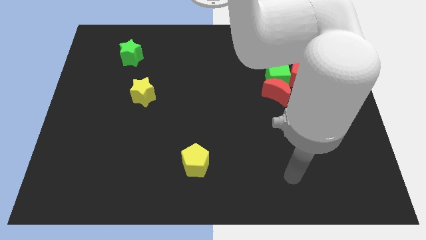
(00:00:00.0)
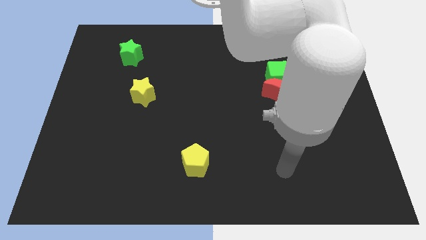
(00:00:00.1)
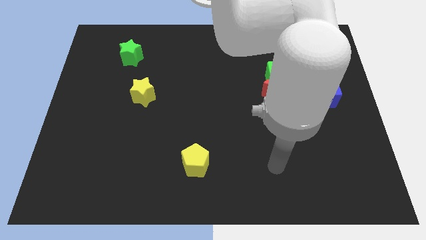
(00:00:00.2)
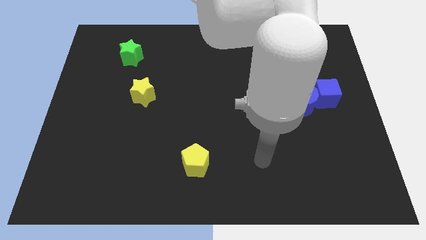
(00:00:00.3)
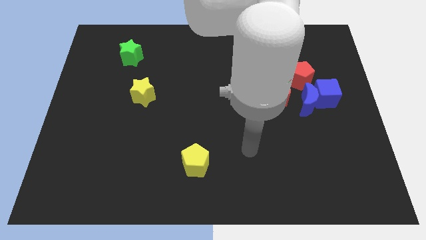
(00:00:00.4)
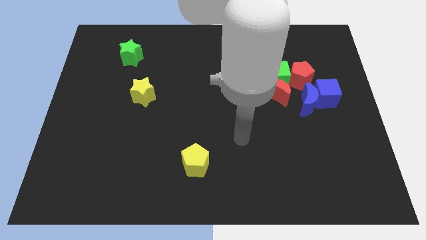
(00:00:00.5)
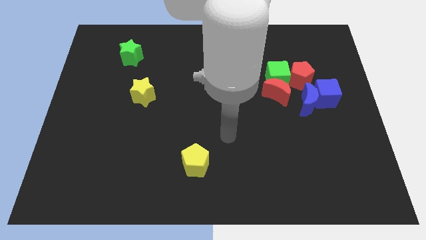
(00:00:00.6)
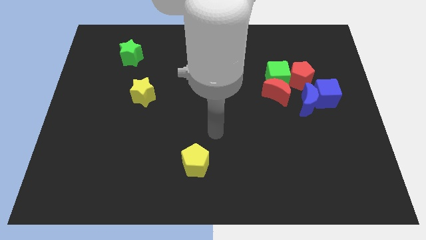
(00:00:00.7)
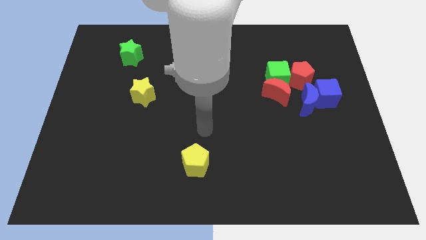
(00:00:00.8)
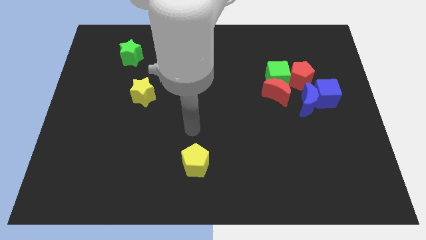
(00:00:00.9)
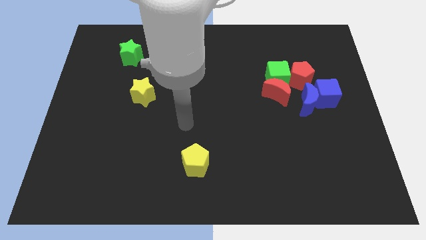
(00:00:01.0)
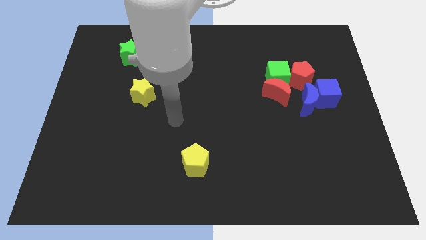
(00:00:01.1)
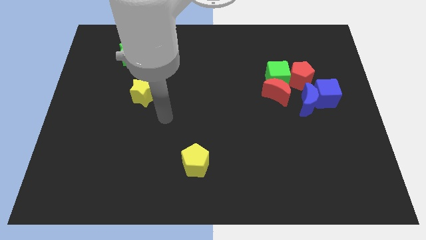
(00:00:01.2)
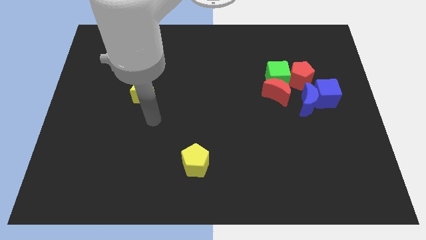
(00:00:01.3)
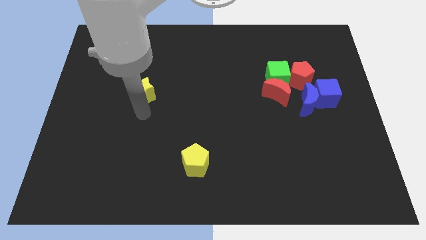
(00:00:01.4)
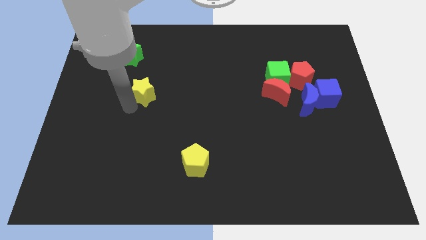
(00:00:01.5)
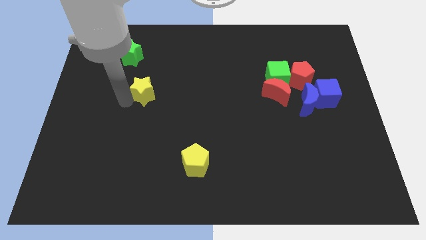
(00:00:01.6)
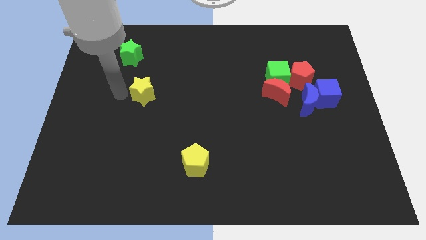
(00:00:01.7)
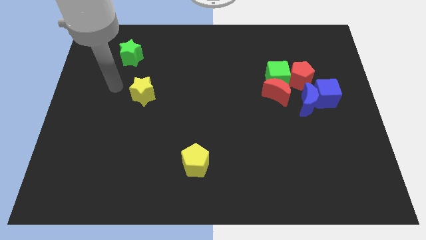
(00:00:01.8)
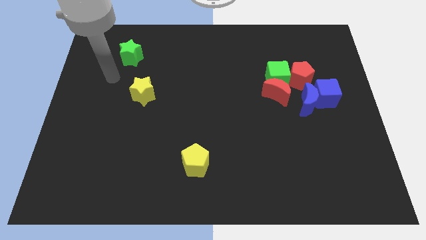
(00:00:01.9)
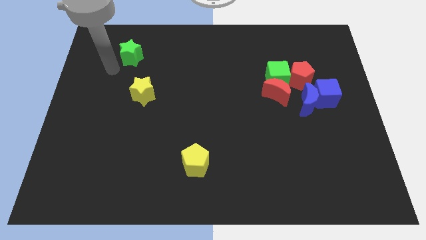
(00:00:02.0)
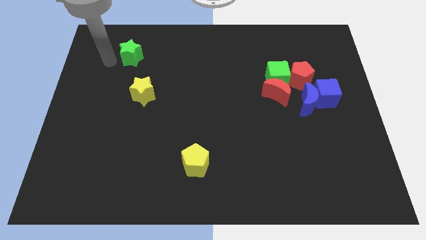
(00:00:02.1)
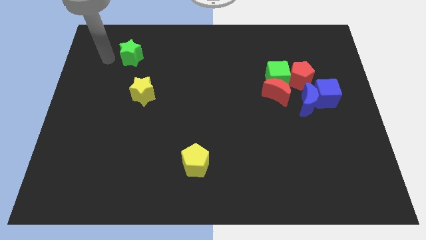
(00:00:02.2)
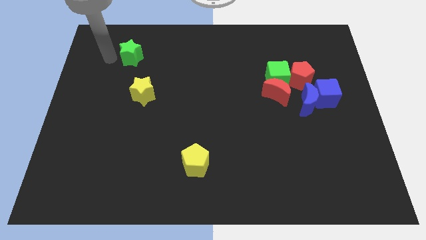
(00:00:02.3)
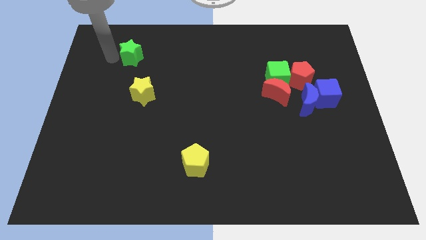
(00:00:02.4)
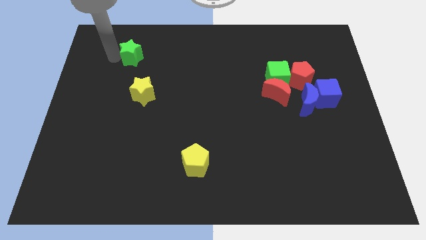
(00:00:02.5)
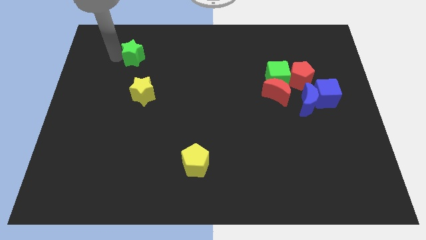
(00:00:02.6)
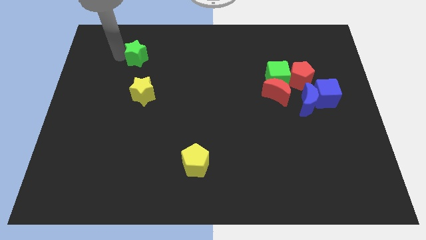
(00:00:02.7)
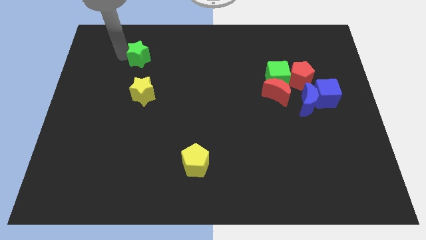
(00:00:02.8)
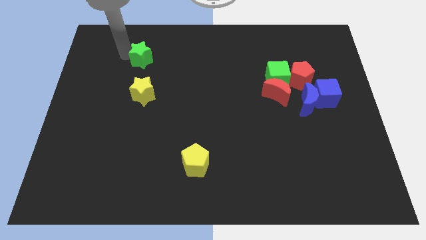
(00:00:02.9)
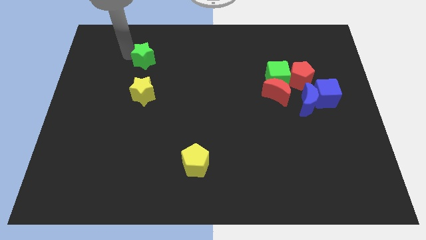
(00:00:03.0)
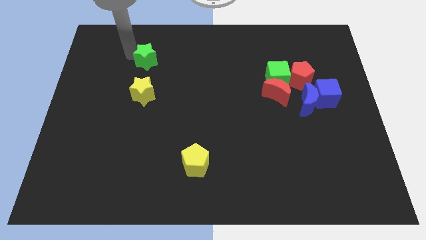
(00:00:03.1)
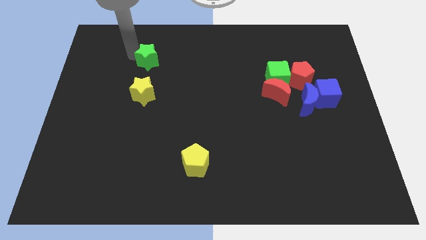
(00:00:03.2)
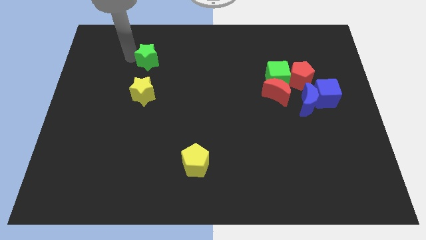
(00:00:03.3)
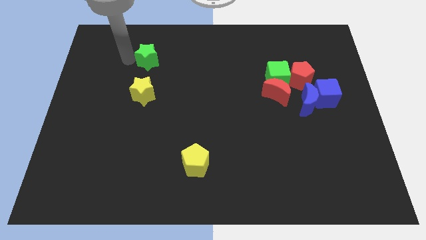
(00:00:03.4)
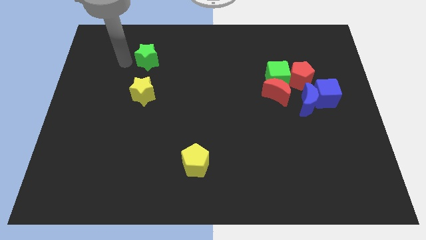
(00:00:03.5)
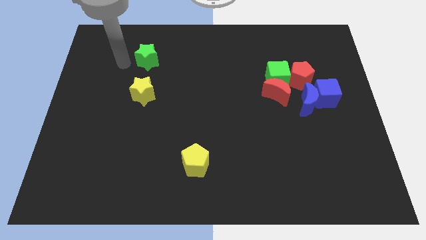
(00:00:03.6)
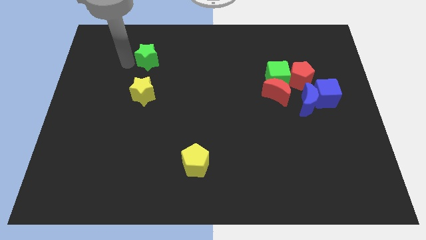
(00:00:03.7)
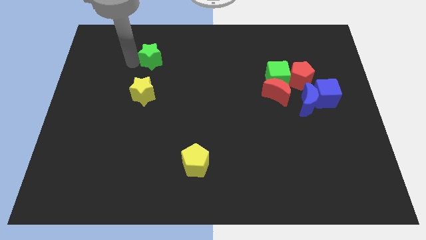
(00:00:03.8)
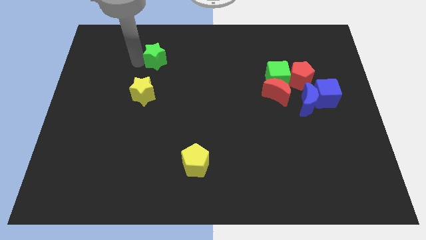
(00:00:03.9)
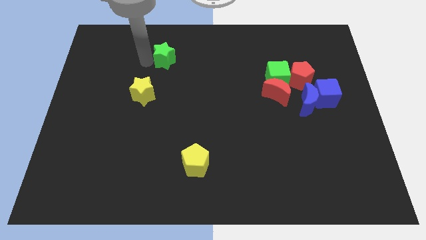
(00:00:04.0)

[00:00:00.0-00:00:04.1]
slightly push the green star to the right

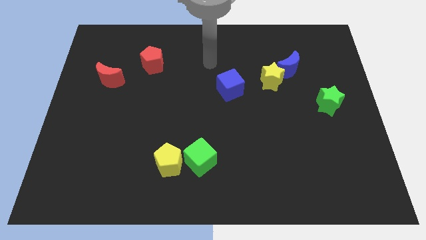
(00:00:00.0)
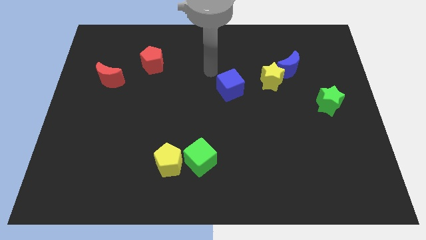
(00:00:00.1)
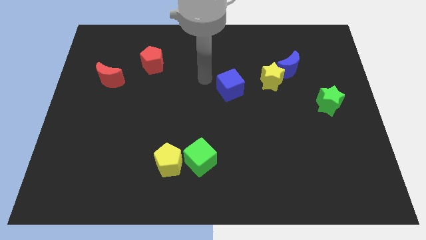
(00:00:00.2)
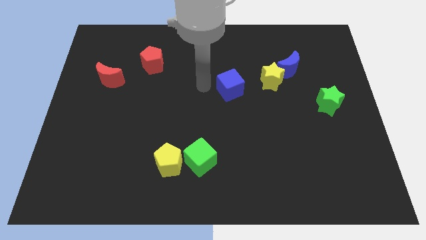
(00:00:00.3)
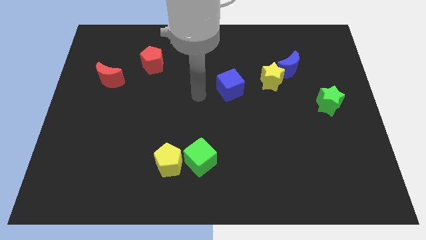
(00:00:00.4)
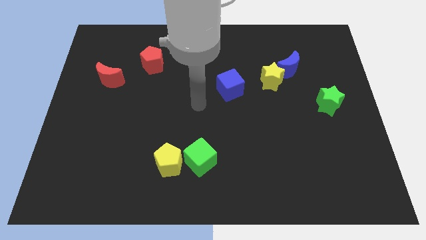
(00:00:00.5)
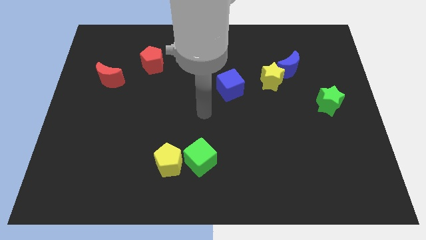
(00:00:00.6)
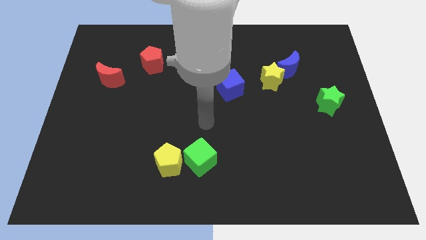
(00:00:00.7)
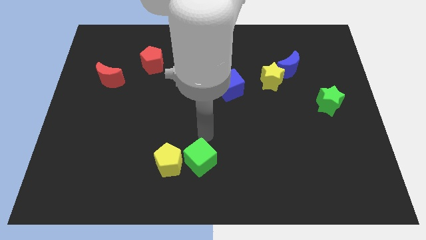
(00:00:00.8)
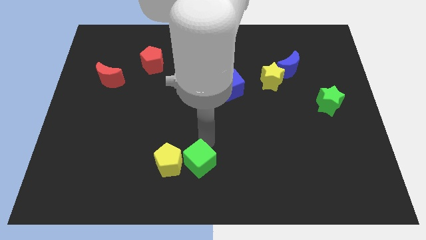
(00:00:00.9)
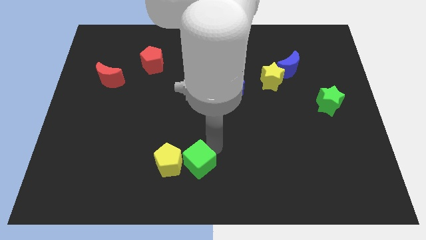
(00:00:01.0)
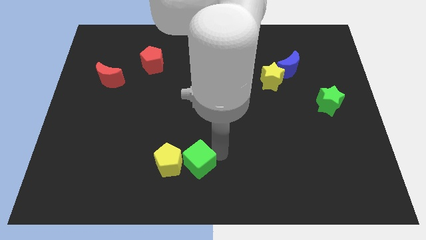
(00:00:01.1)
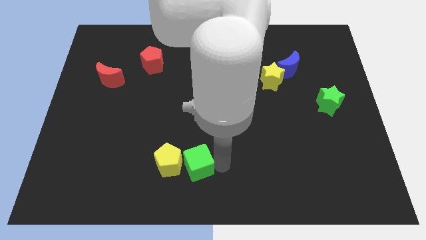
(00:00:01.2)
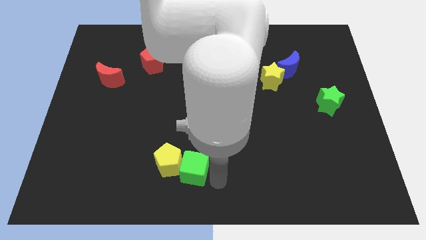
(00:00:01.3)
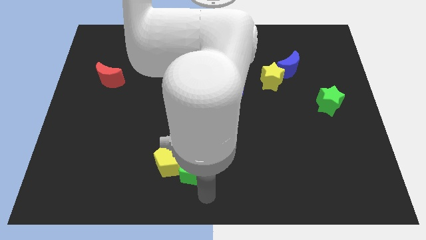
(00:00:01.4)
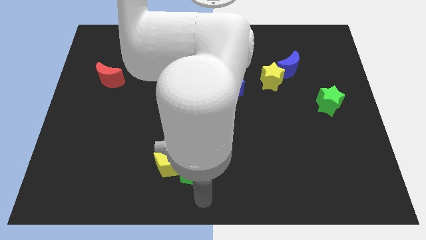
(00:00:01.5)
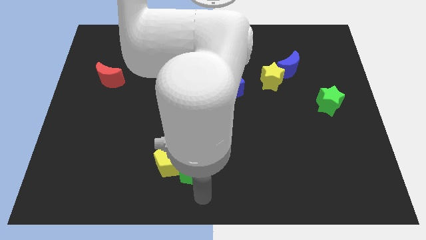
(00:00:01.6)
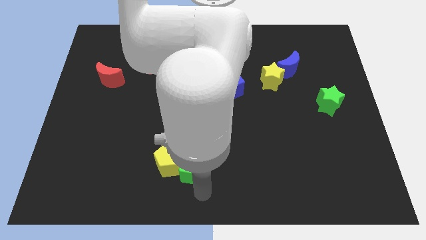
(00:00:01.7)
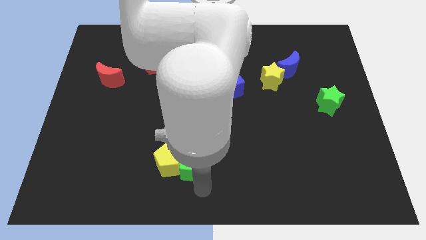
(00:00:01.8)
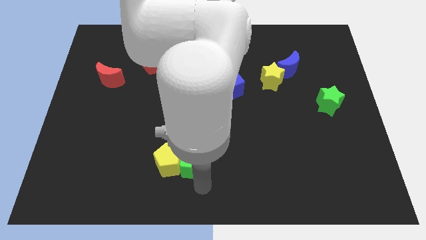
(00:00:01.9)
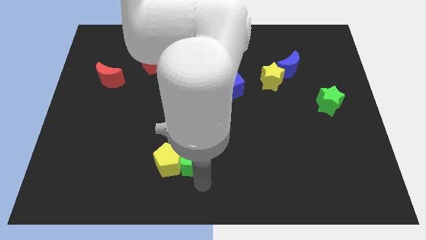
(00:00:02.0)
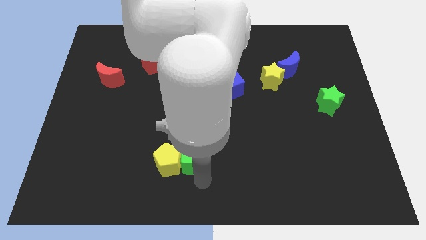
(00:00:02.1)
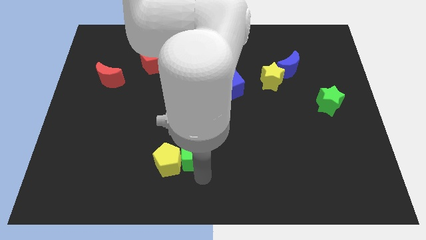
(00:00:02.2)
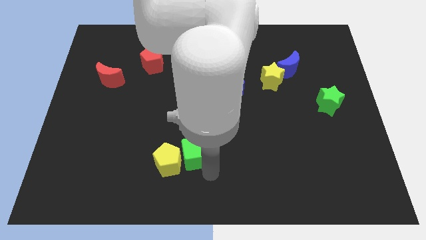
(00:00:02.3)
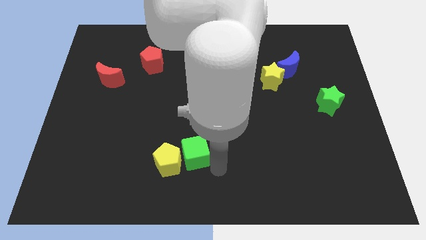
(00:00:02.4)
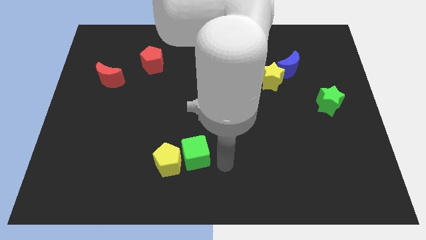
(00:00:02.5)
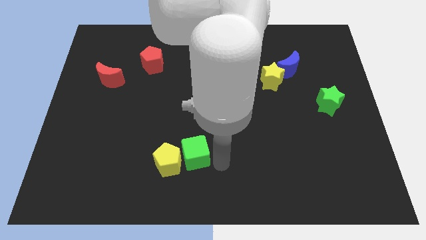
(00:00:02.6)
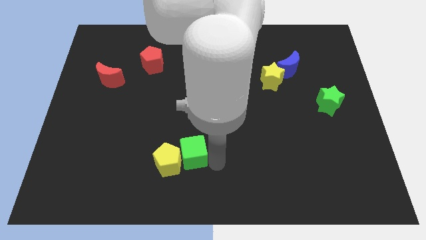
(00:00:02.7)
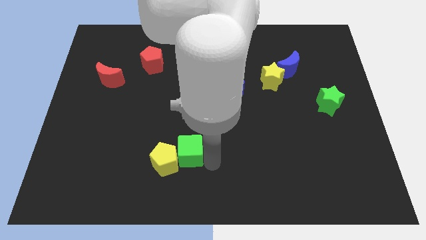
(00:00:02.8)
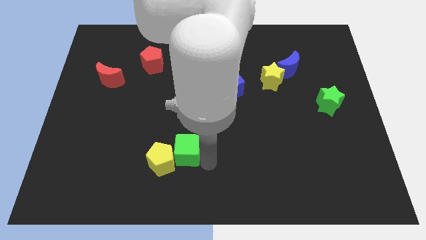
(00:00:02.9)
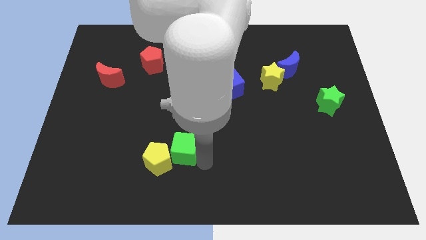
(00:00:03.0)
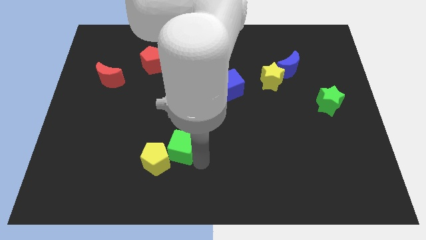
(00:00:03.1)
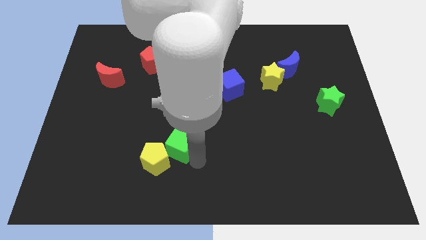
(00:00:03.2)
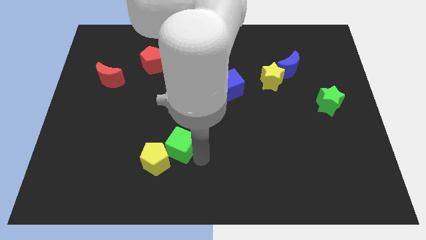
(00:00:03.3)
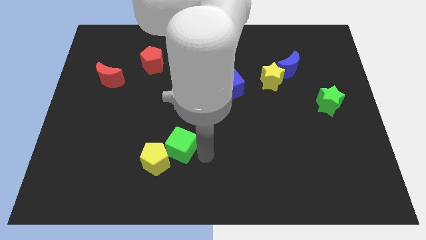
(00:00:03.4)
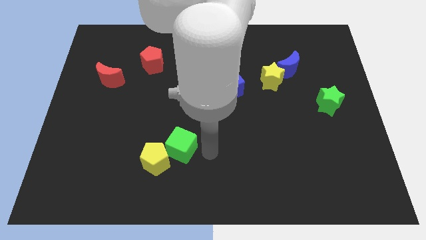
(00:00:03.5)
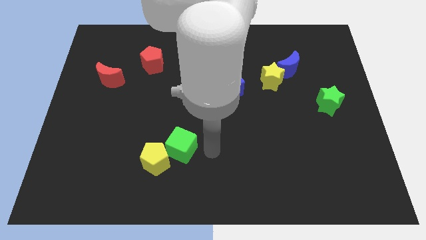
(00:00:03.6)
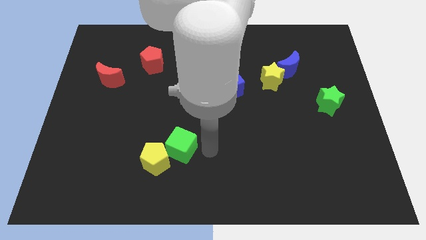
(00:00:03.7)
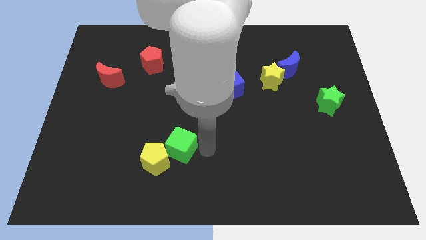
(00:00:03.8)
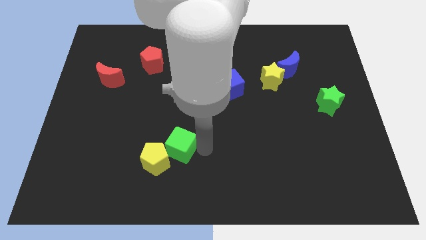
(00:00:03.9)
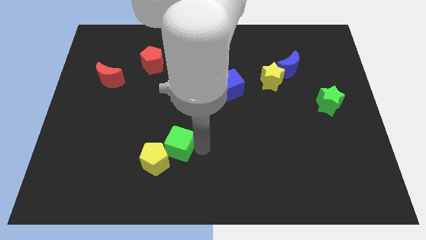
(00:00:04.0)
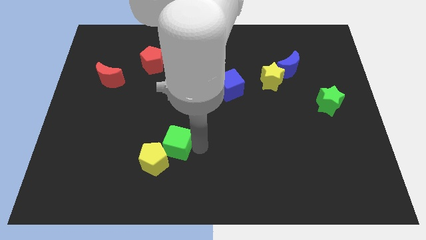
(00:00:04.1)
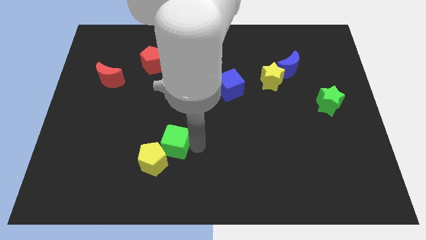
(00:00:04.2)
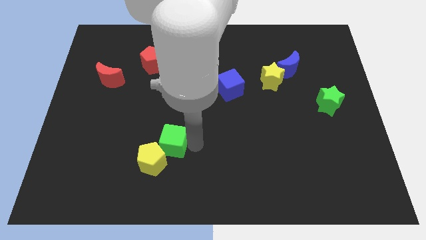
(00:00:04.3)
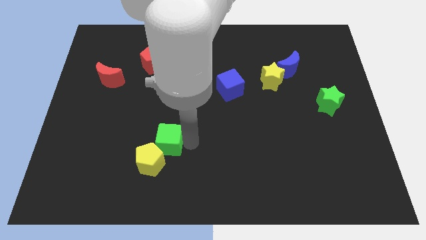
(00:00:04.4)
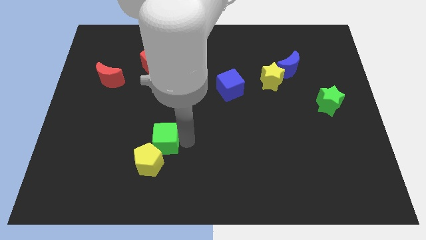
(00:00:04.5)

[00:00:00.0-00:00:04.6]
slide the green cube left a little
